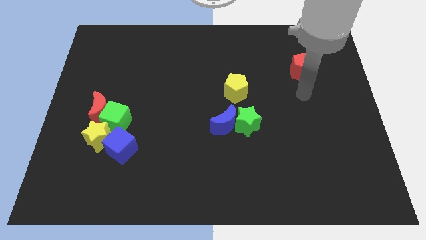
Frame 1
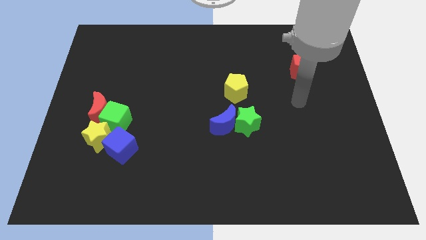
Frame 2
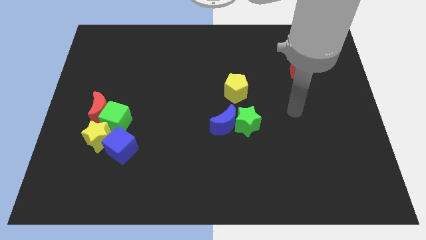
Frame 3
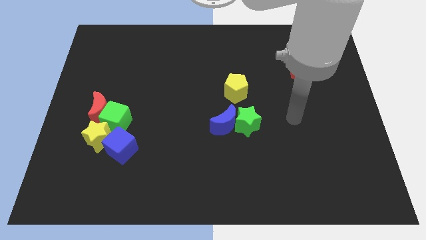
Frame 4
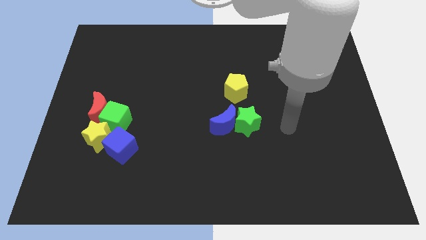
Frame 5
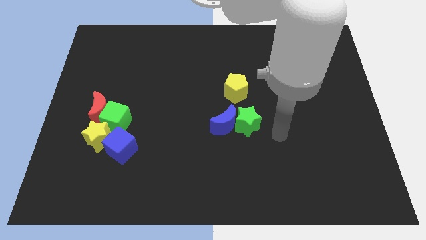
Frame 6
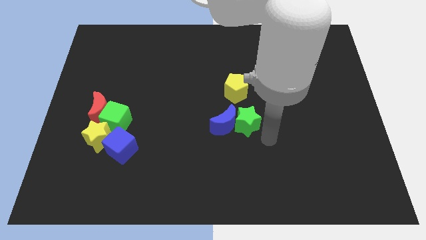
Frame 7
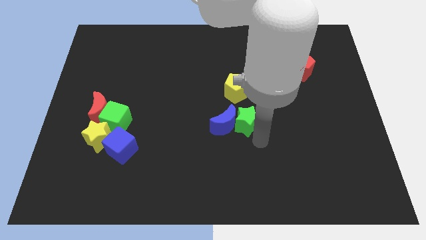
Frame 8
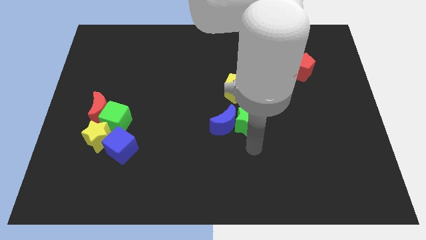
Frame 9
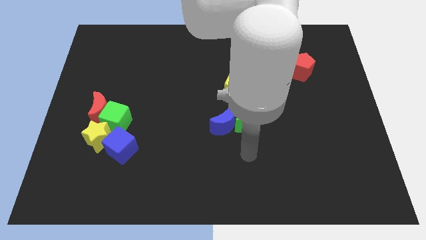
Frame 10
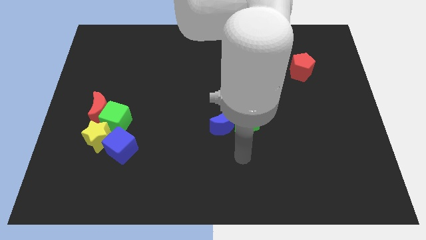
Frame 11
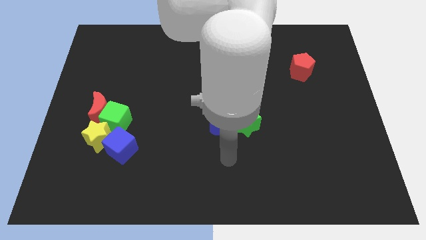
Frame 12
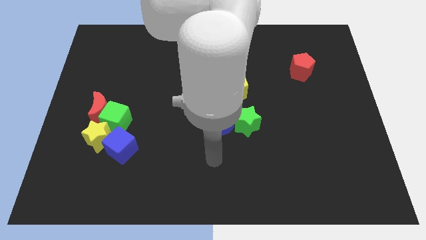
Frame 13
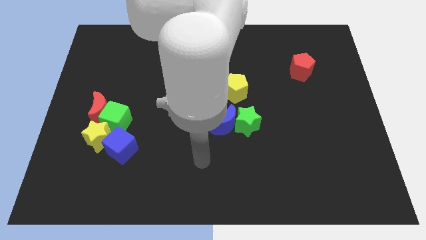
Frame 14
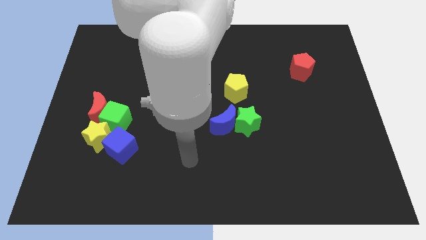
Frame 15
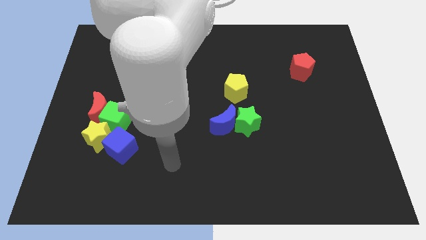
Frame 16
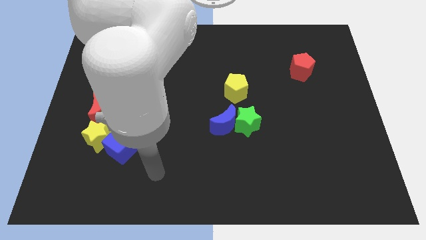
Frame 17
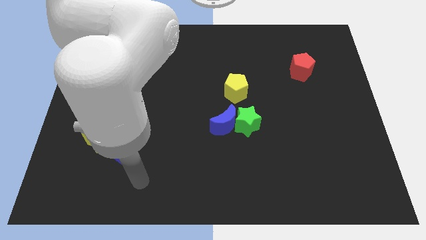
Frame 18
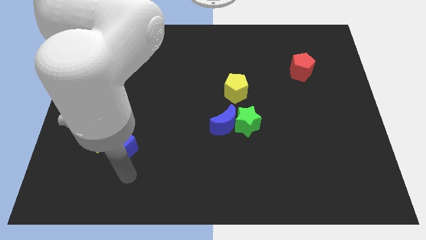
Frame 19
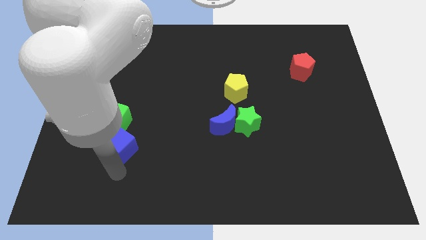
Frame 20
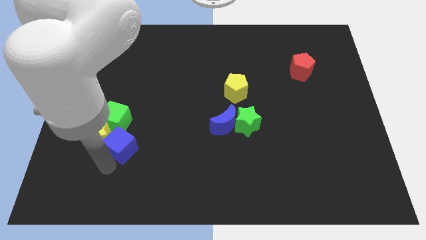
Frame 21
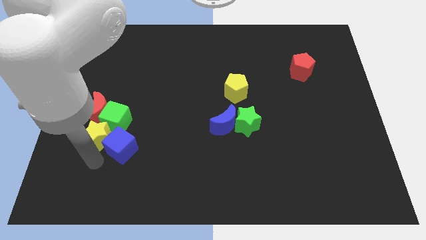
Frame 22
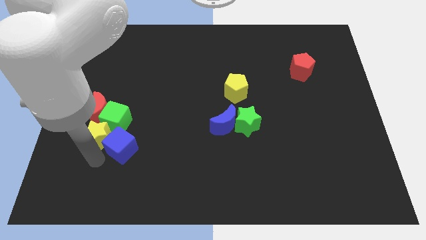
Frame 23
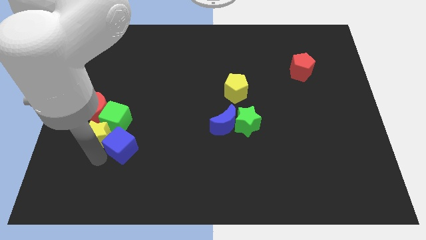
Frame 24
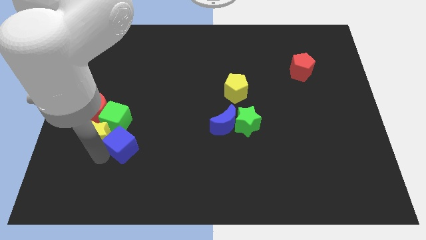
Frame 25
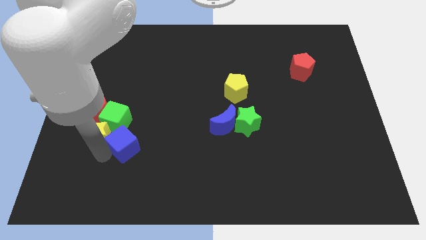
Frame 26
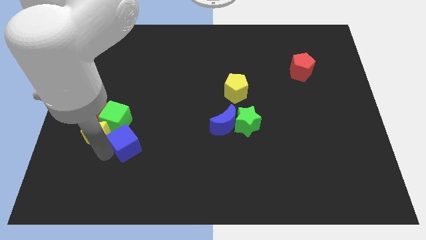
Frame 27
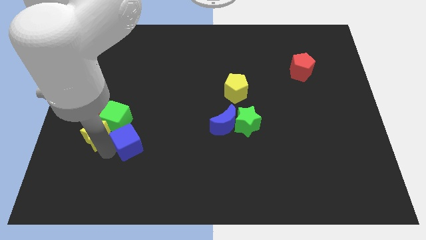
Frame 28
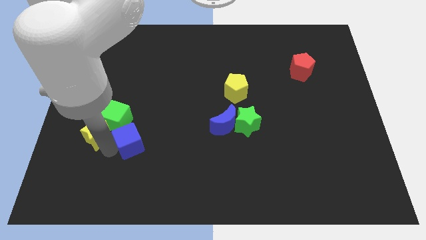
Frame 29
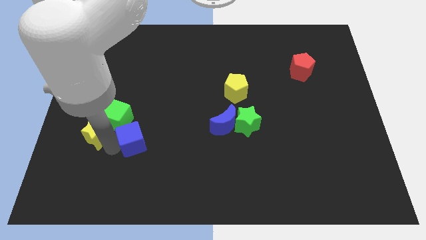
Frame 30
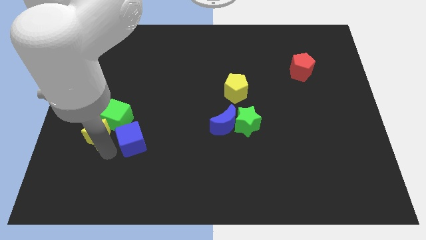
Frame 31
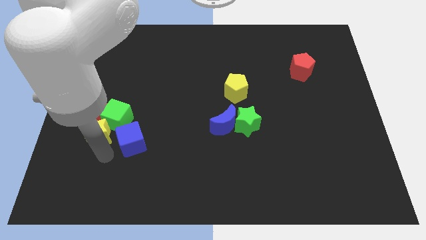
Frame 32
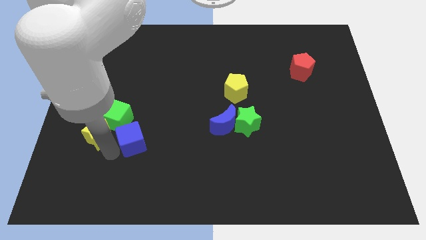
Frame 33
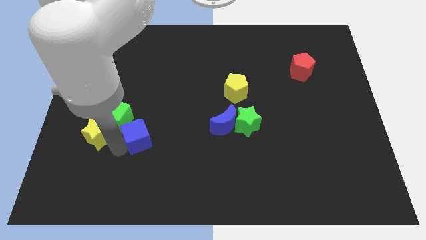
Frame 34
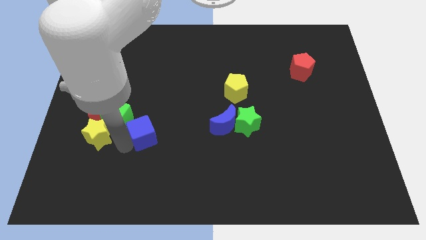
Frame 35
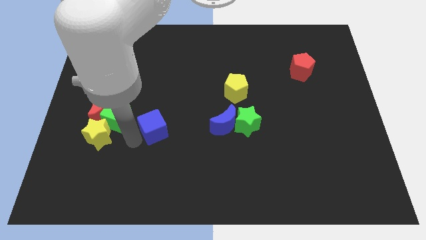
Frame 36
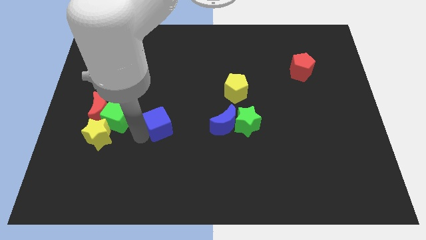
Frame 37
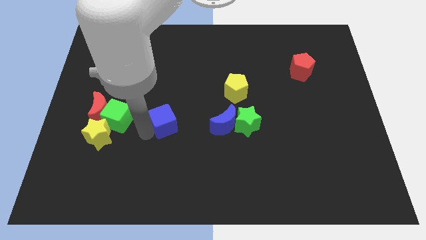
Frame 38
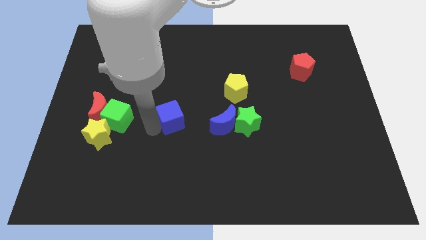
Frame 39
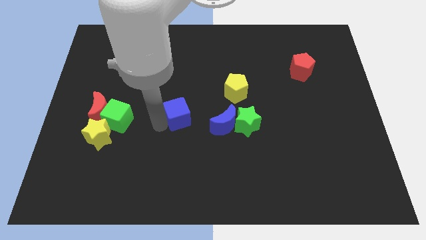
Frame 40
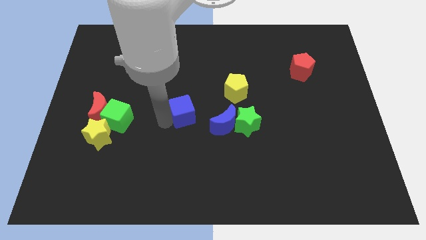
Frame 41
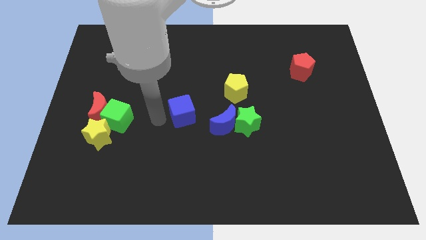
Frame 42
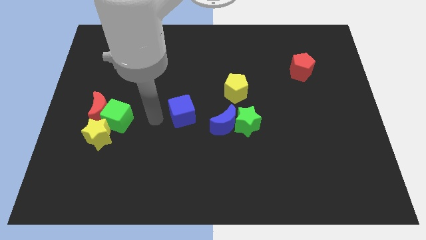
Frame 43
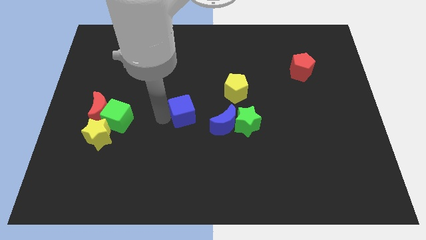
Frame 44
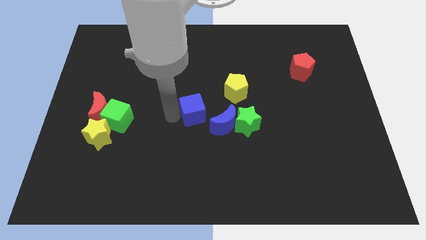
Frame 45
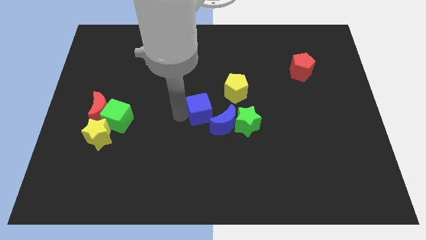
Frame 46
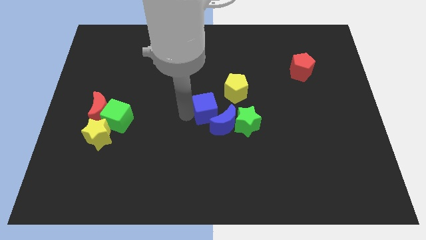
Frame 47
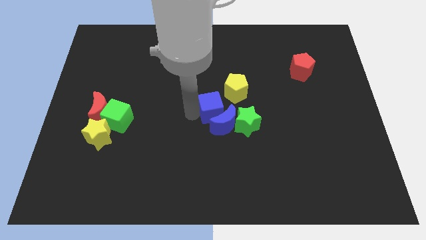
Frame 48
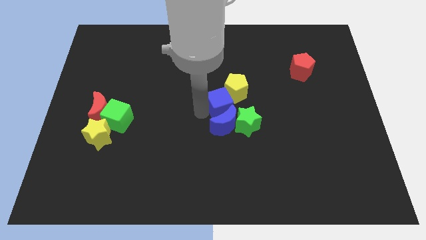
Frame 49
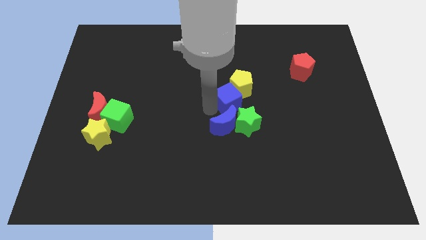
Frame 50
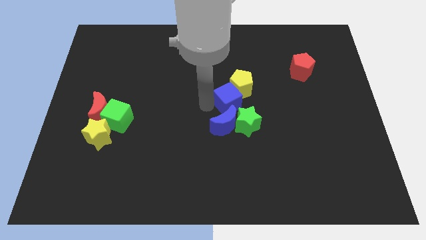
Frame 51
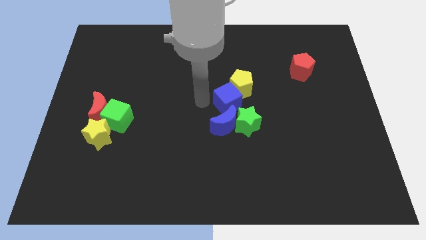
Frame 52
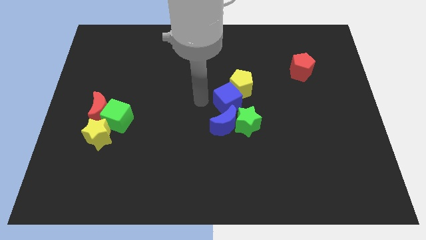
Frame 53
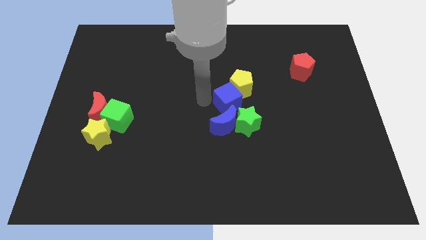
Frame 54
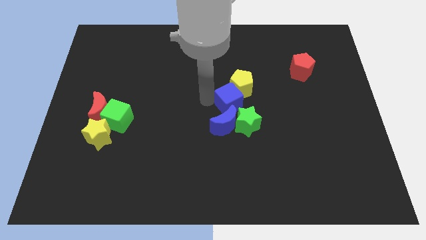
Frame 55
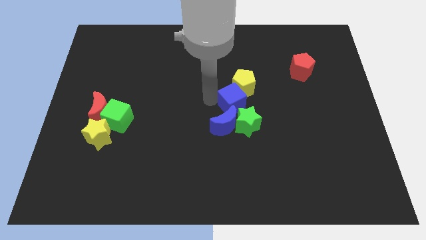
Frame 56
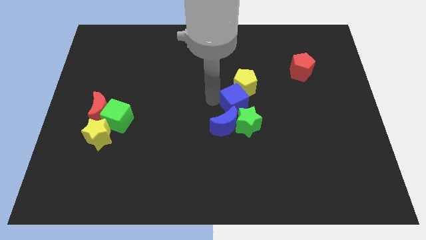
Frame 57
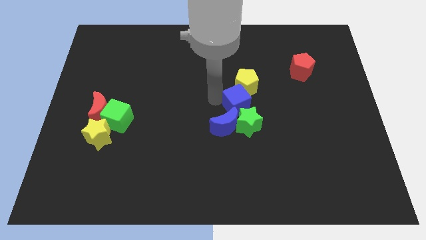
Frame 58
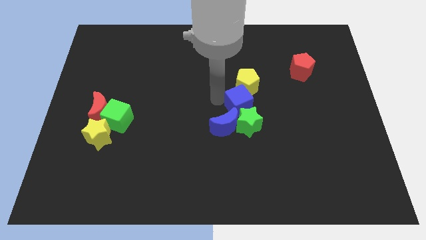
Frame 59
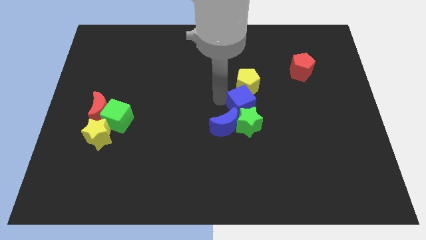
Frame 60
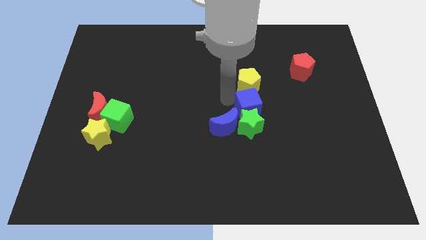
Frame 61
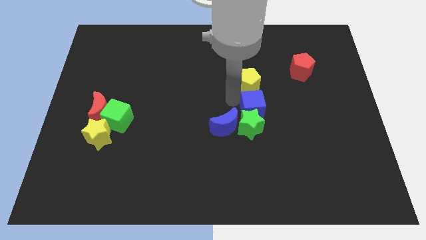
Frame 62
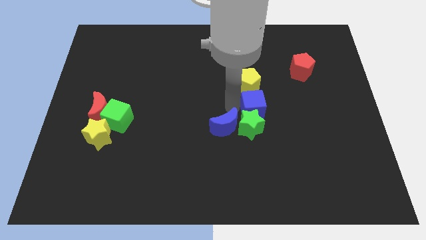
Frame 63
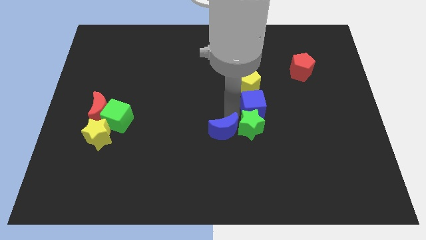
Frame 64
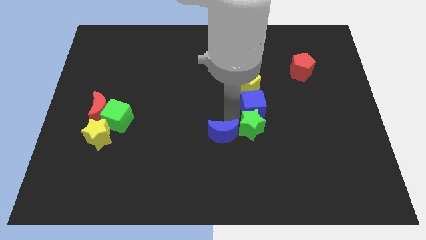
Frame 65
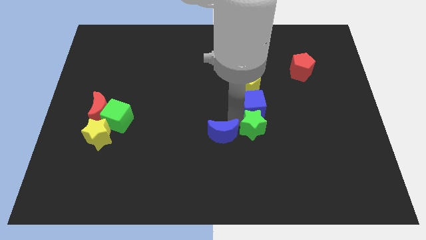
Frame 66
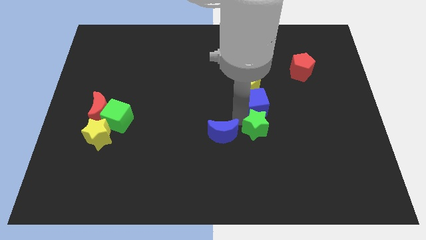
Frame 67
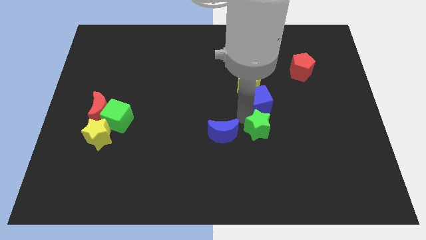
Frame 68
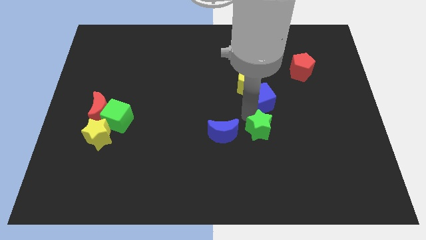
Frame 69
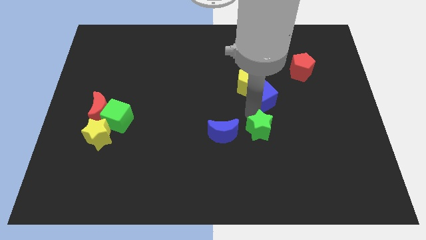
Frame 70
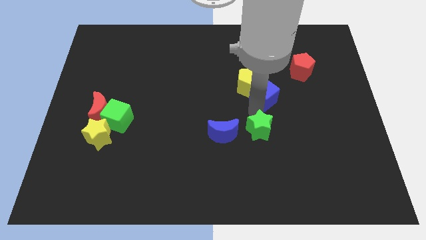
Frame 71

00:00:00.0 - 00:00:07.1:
move the blue cube to the right side of the yellow pentagon

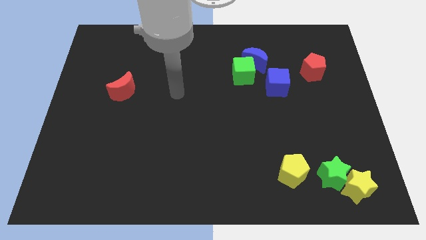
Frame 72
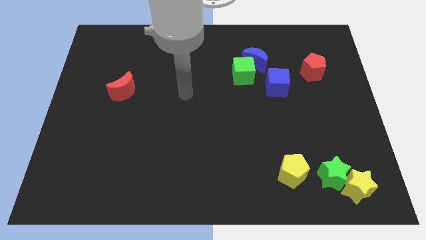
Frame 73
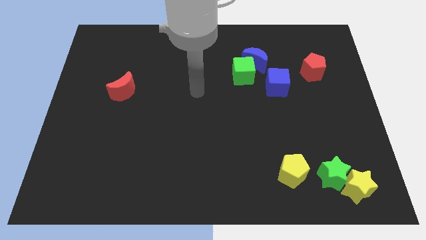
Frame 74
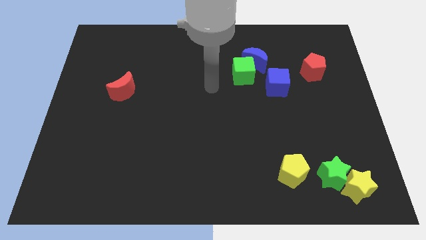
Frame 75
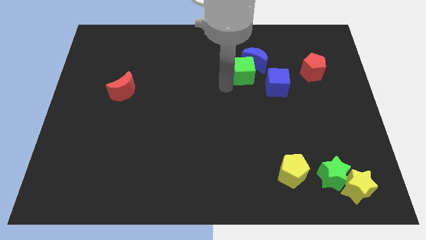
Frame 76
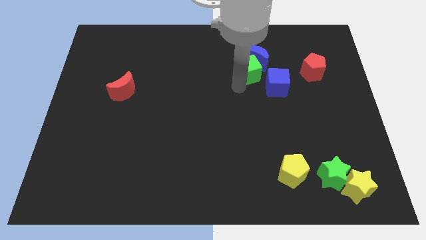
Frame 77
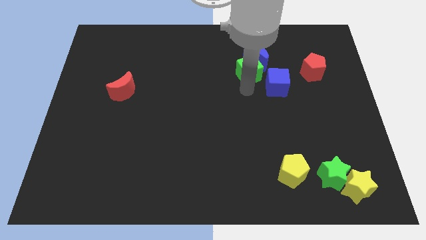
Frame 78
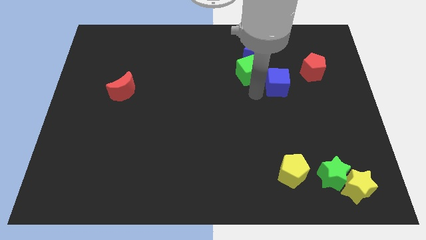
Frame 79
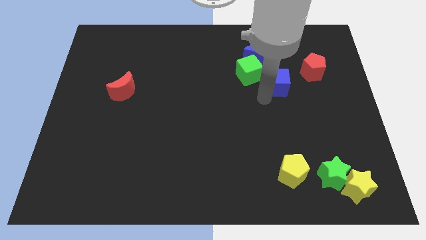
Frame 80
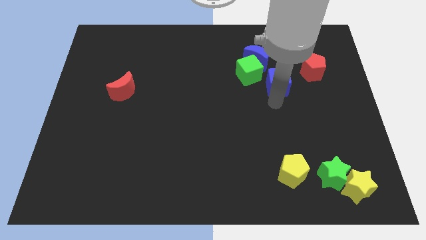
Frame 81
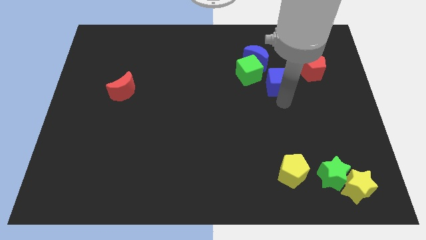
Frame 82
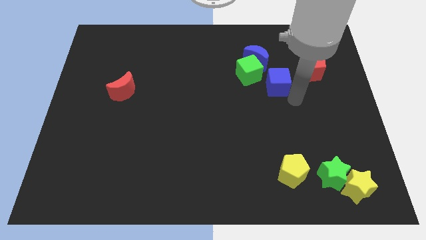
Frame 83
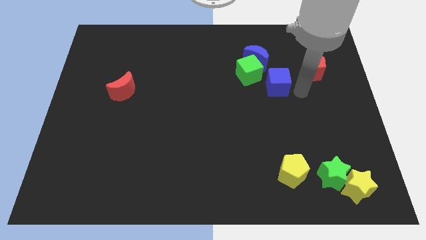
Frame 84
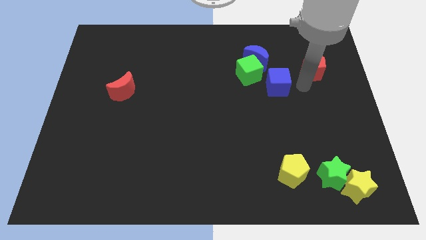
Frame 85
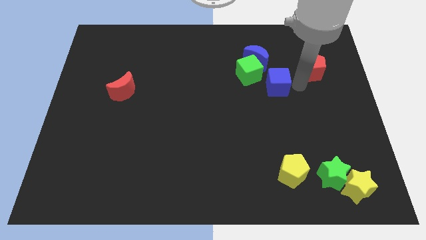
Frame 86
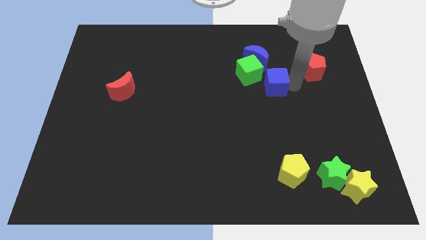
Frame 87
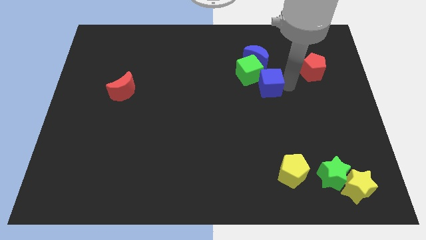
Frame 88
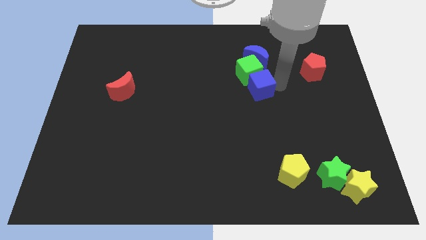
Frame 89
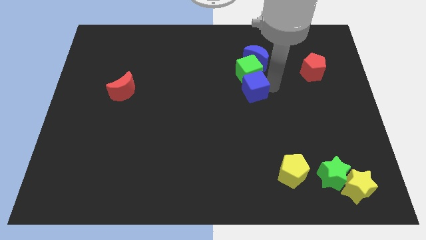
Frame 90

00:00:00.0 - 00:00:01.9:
slide the blue cube to the bottom left side of the green cube
